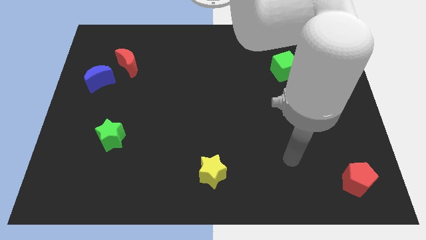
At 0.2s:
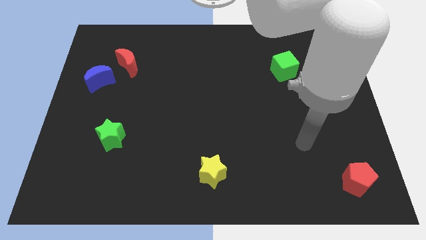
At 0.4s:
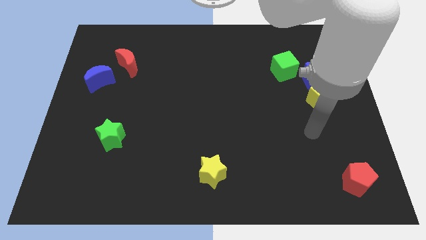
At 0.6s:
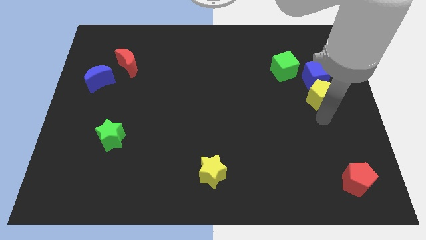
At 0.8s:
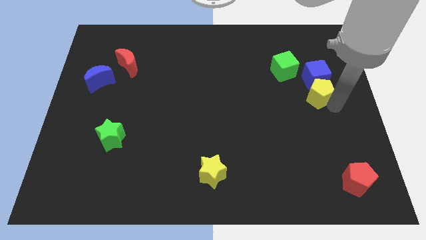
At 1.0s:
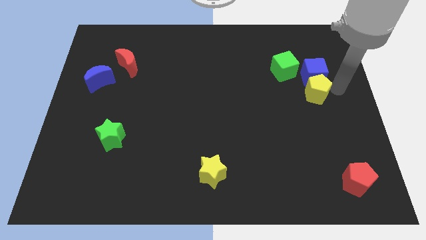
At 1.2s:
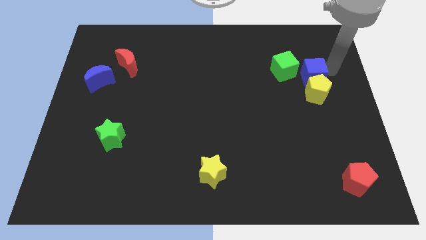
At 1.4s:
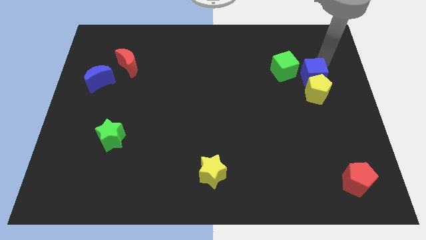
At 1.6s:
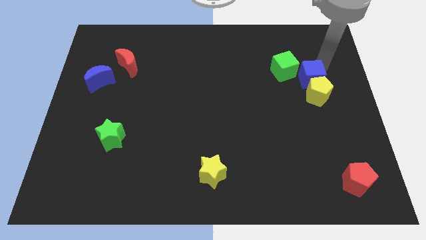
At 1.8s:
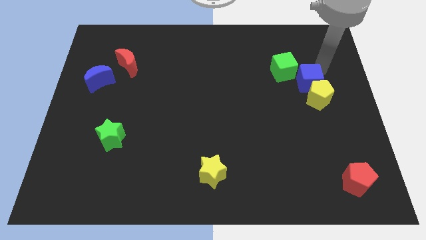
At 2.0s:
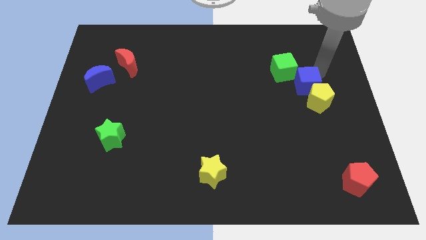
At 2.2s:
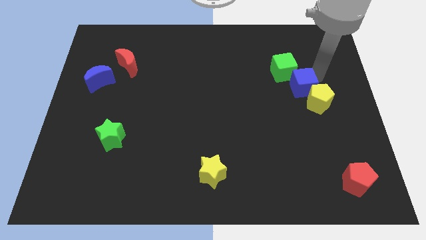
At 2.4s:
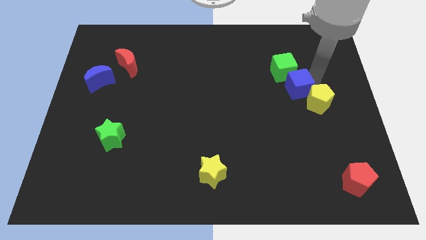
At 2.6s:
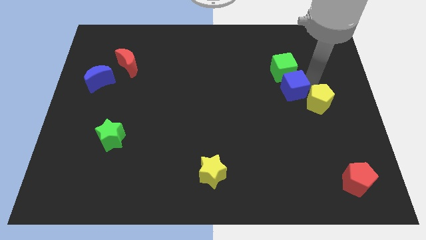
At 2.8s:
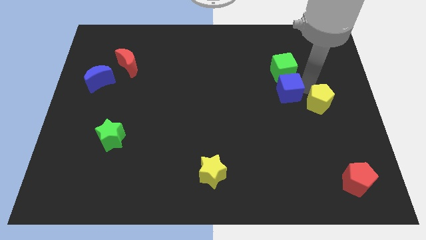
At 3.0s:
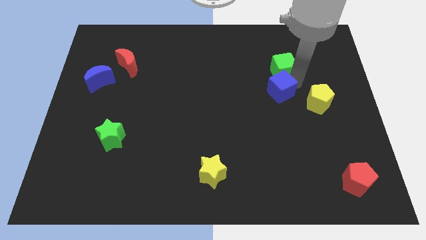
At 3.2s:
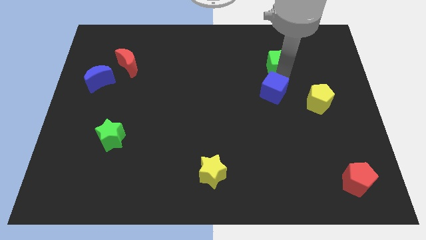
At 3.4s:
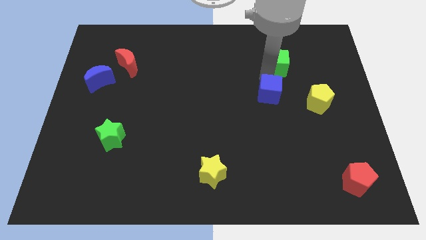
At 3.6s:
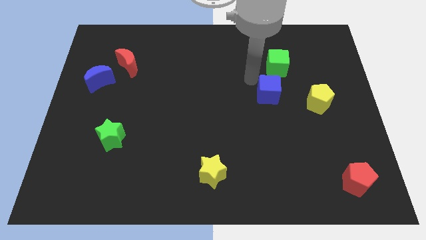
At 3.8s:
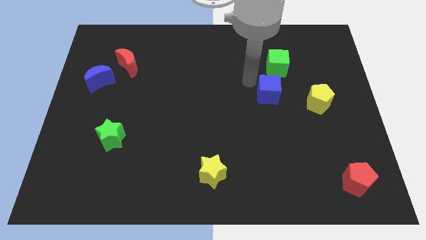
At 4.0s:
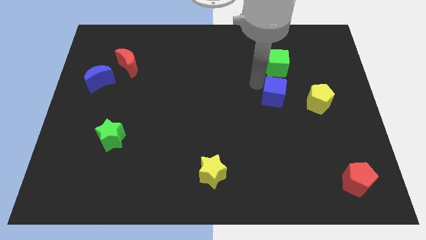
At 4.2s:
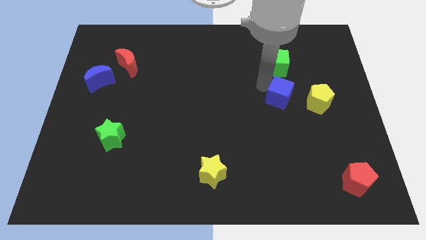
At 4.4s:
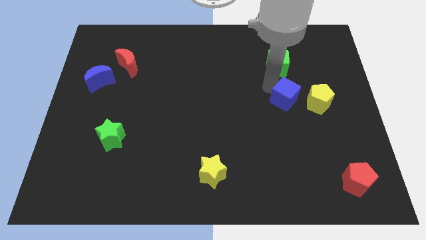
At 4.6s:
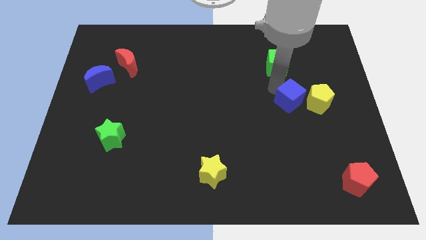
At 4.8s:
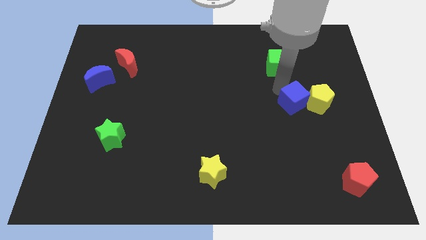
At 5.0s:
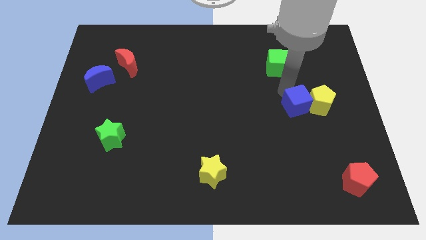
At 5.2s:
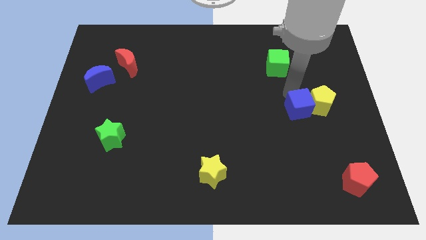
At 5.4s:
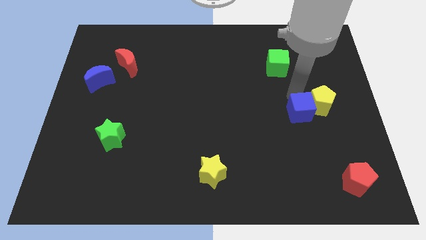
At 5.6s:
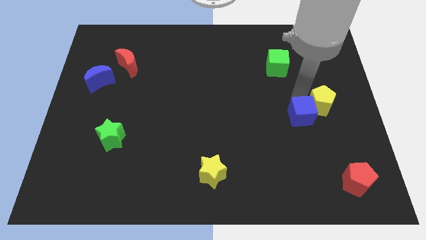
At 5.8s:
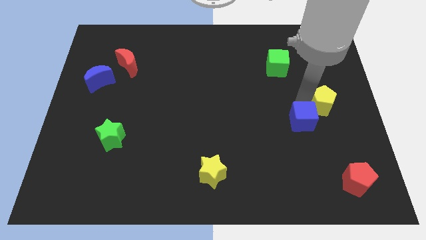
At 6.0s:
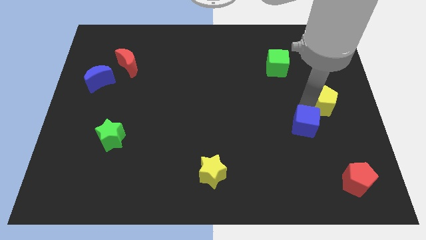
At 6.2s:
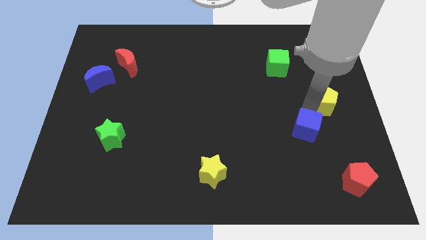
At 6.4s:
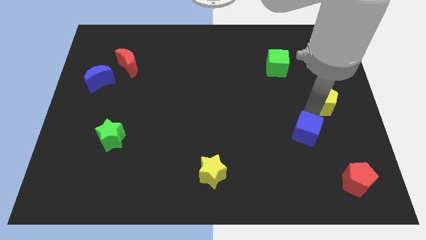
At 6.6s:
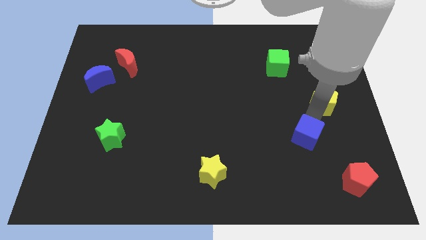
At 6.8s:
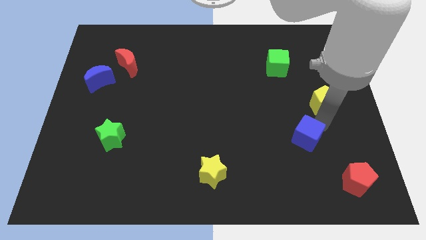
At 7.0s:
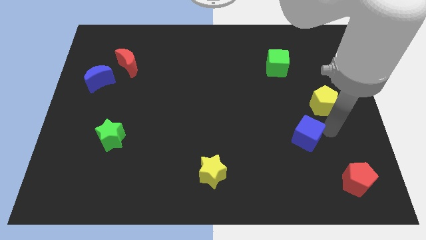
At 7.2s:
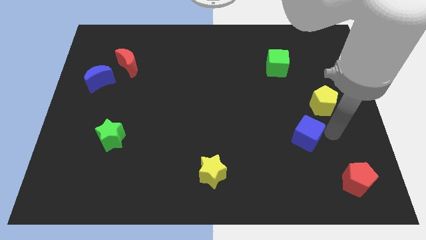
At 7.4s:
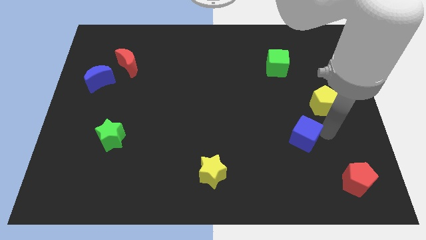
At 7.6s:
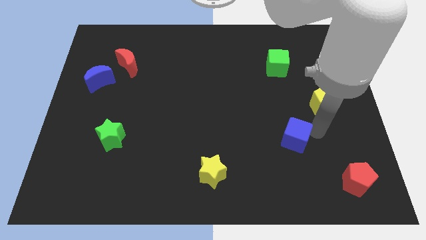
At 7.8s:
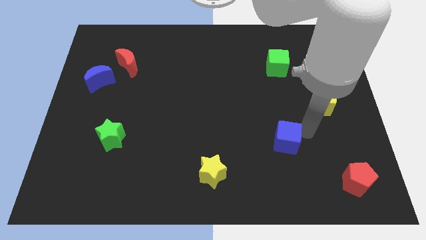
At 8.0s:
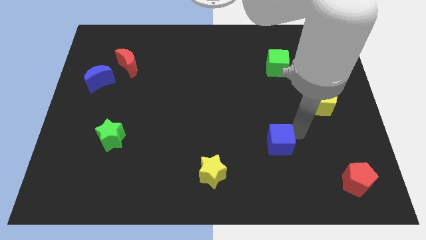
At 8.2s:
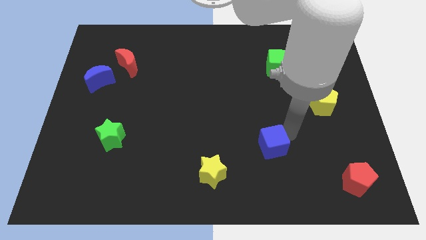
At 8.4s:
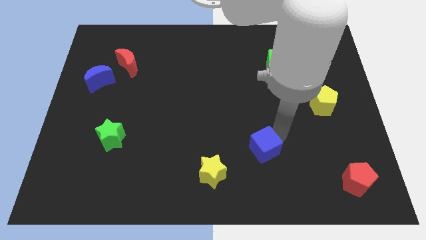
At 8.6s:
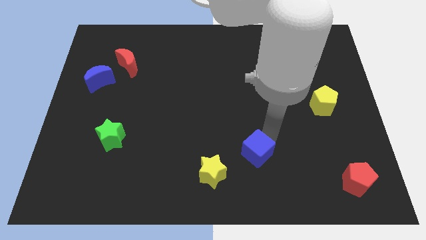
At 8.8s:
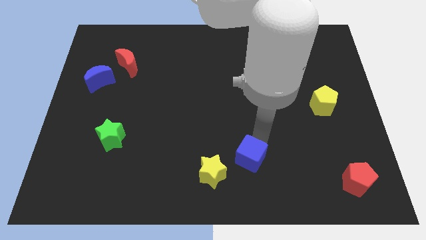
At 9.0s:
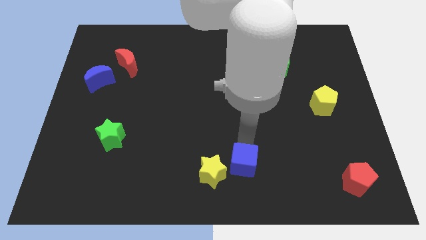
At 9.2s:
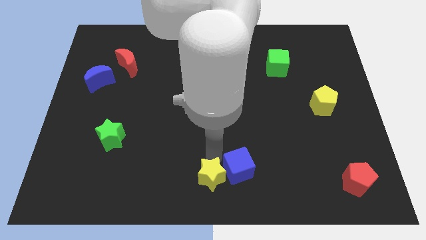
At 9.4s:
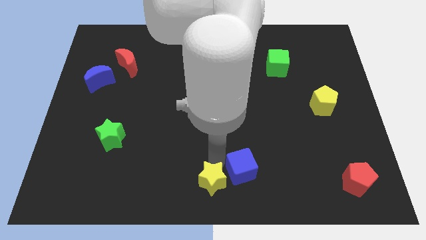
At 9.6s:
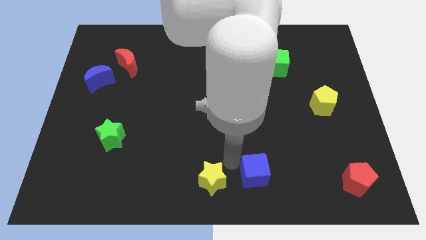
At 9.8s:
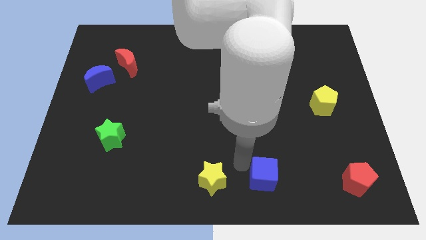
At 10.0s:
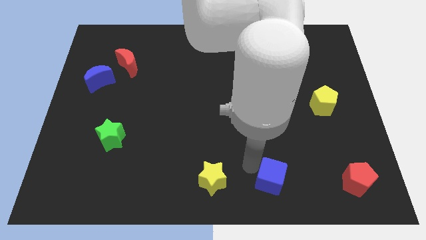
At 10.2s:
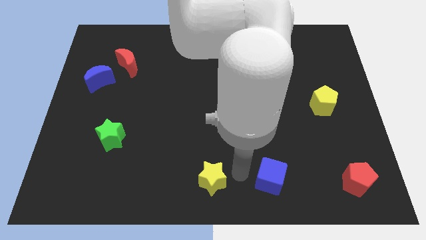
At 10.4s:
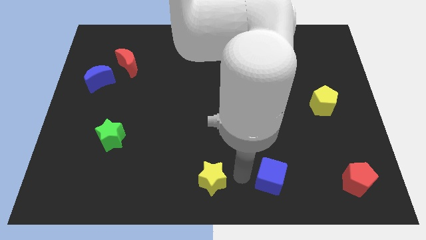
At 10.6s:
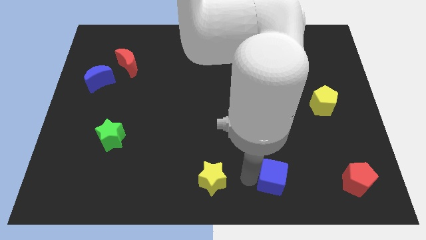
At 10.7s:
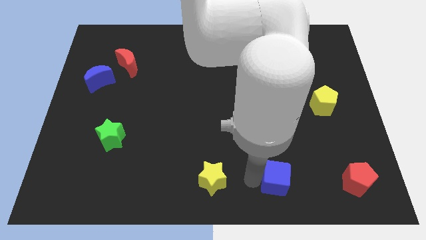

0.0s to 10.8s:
move the blue cube to the left side of the red pentagon

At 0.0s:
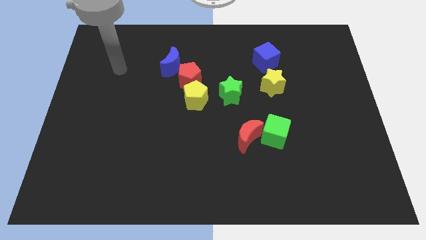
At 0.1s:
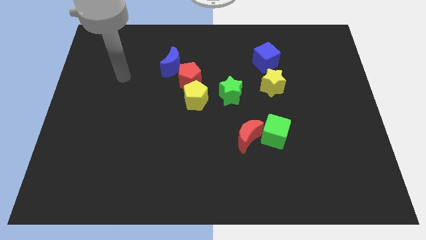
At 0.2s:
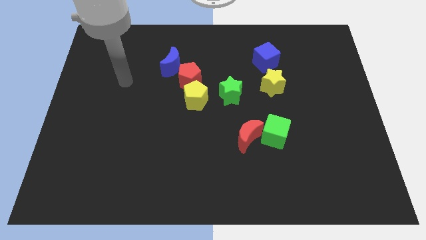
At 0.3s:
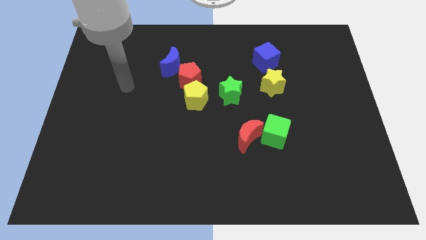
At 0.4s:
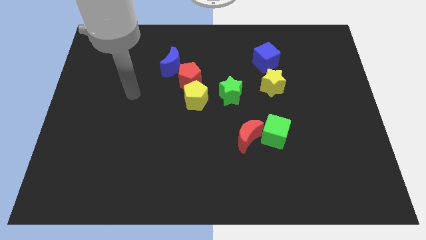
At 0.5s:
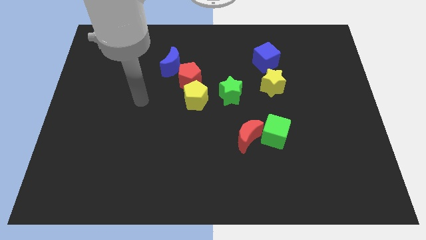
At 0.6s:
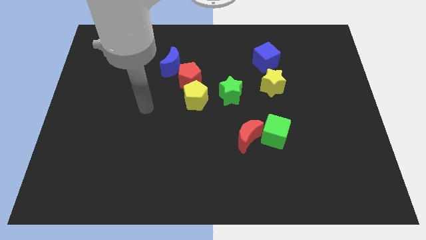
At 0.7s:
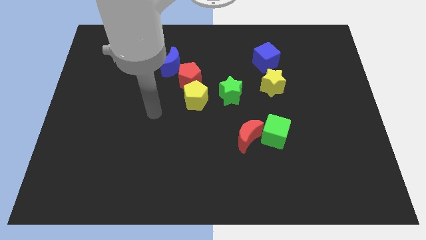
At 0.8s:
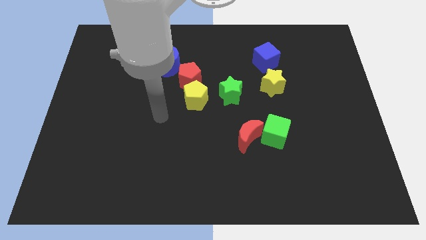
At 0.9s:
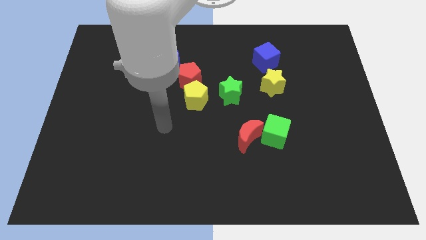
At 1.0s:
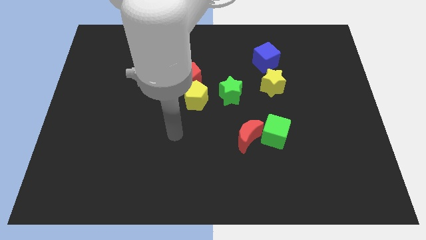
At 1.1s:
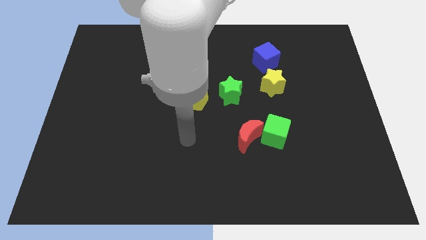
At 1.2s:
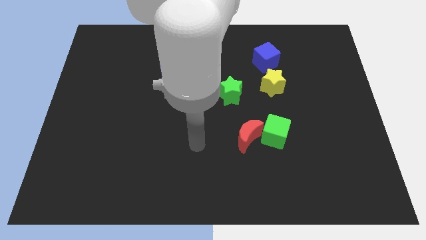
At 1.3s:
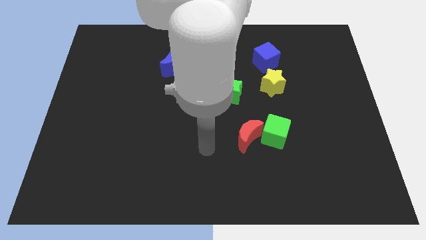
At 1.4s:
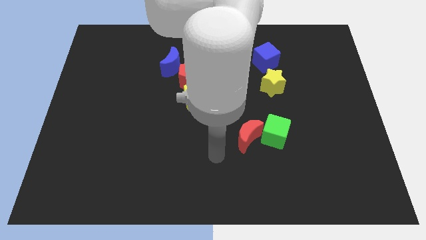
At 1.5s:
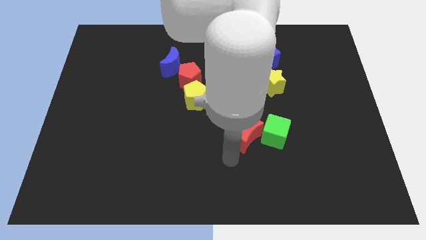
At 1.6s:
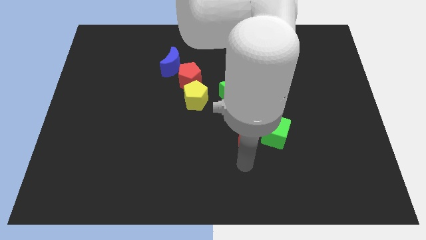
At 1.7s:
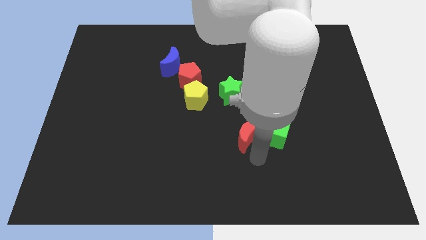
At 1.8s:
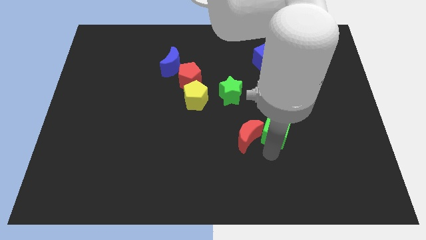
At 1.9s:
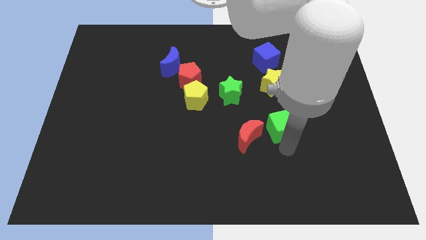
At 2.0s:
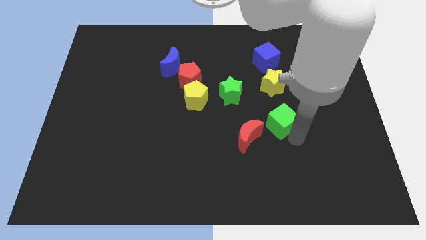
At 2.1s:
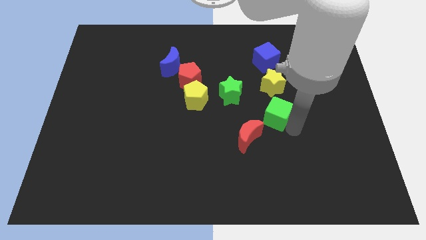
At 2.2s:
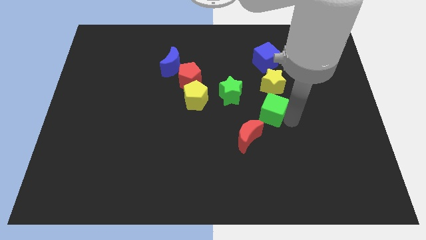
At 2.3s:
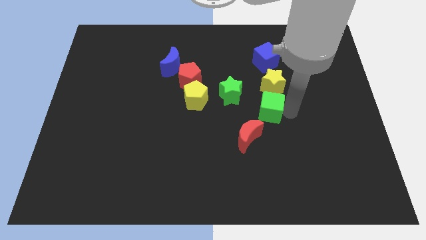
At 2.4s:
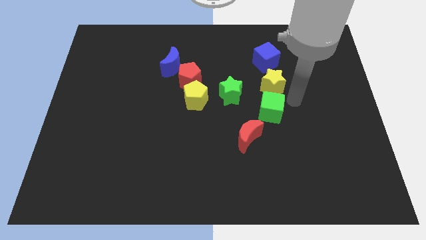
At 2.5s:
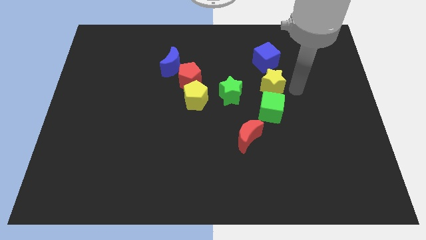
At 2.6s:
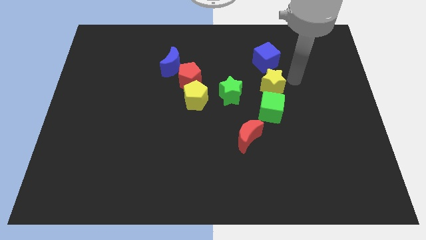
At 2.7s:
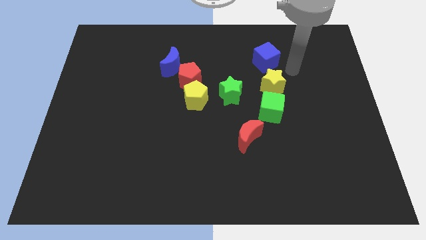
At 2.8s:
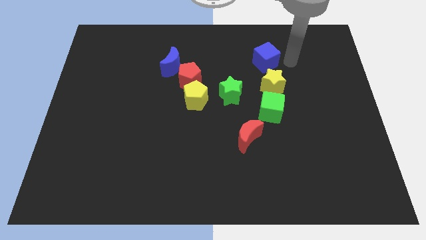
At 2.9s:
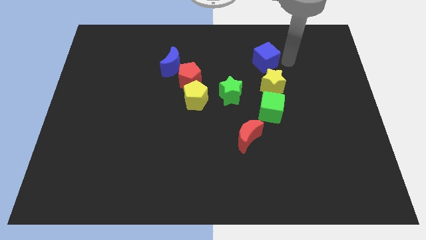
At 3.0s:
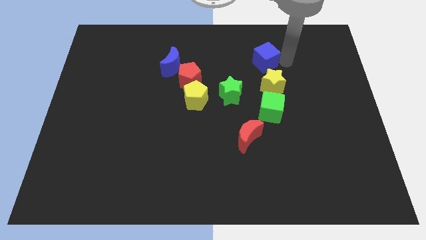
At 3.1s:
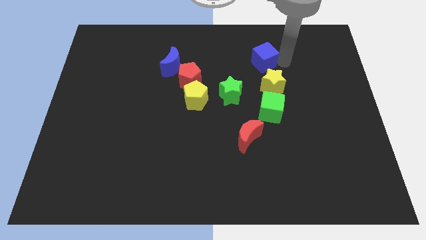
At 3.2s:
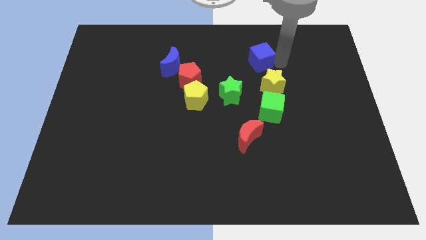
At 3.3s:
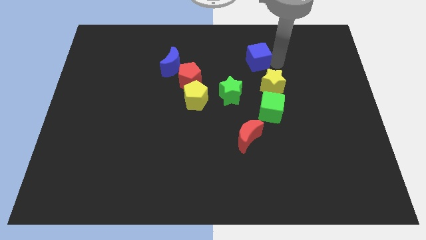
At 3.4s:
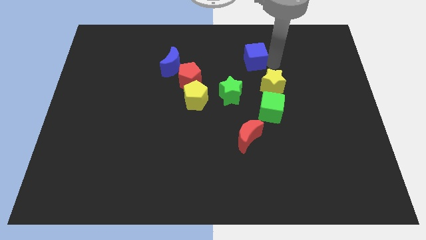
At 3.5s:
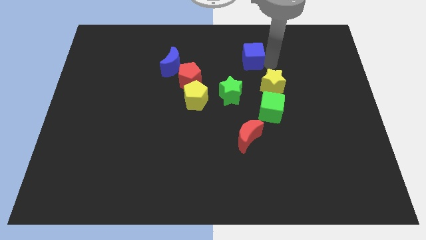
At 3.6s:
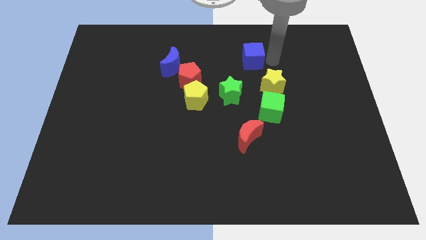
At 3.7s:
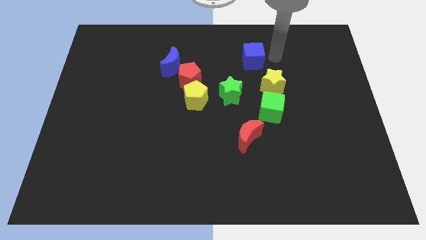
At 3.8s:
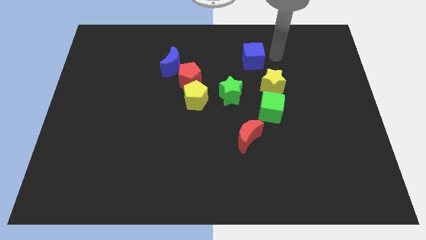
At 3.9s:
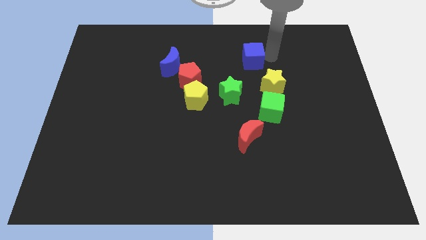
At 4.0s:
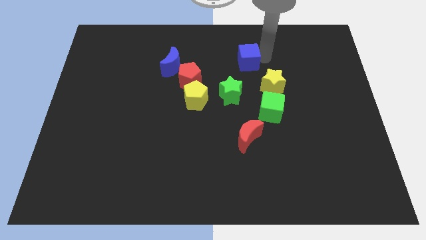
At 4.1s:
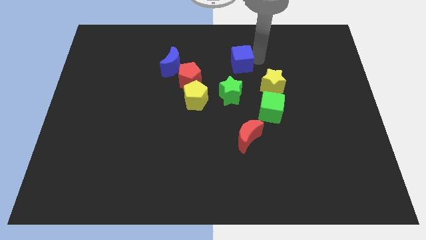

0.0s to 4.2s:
move the blue cube above the green star
